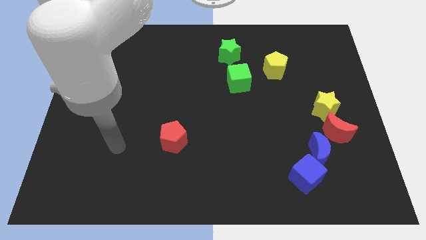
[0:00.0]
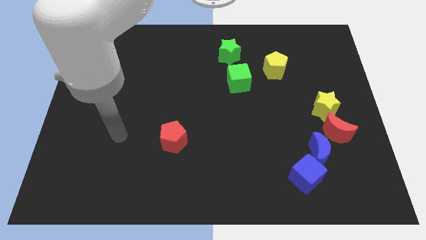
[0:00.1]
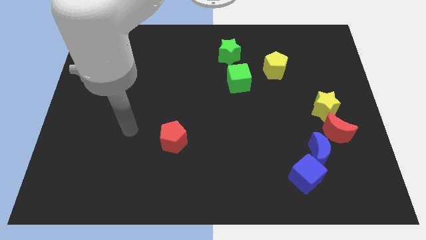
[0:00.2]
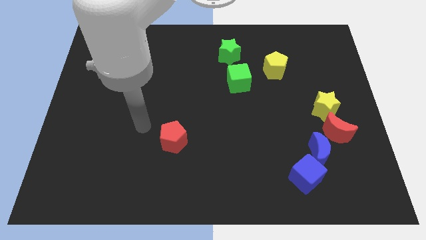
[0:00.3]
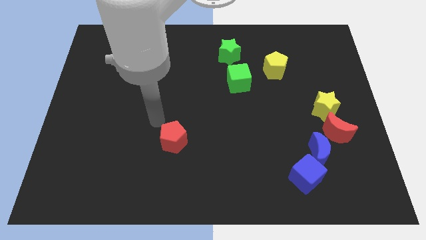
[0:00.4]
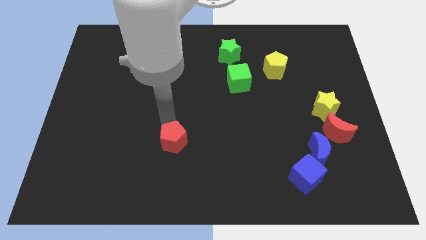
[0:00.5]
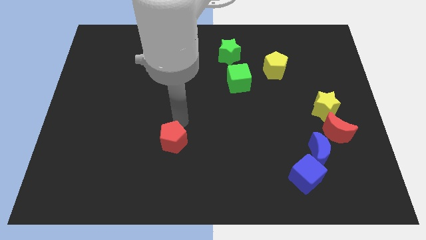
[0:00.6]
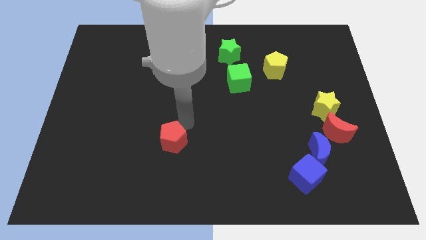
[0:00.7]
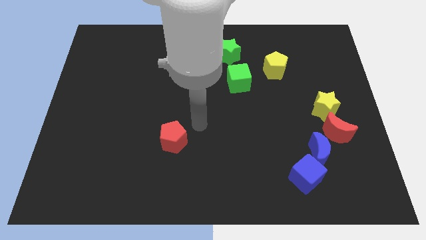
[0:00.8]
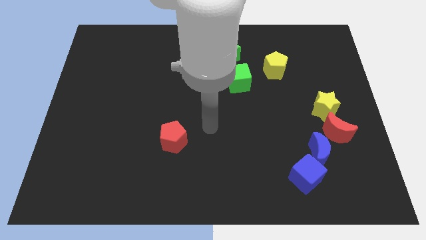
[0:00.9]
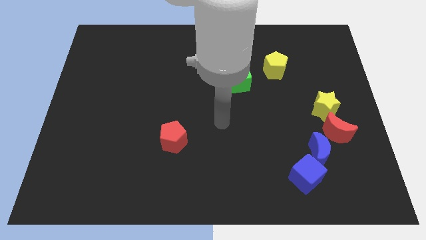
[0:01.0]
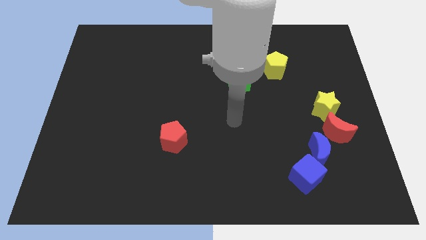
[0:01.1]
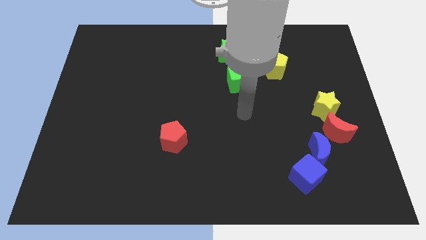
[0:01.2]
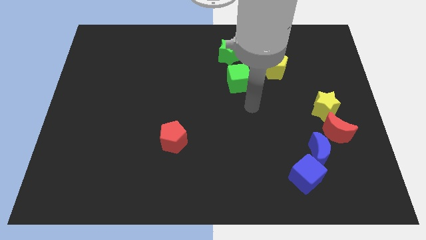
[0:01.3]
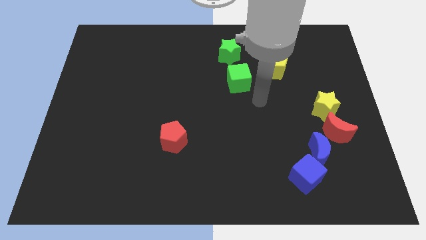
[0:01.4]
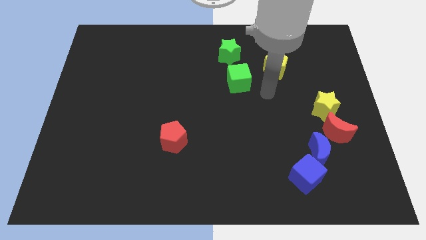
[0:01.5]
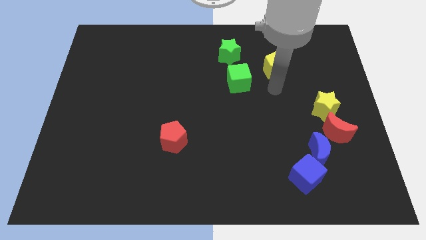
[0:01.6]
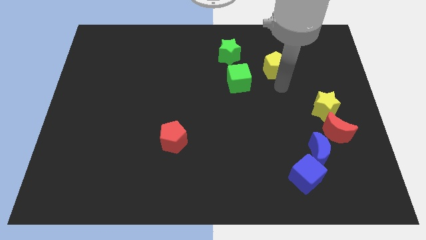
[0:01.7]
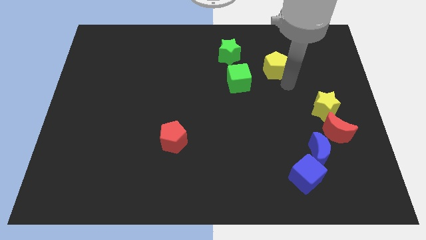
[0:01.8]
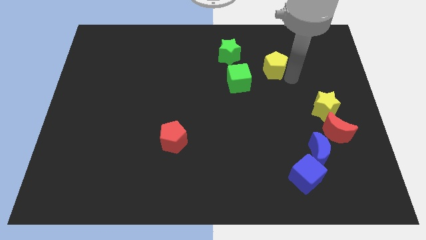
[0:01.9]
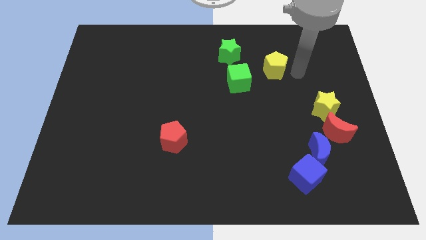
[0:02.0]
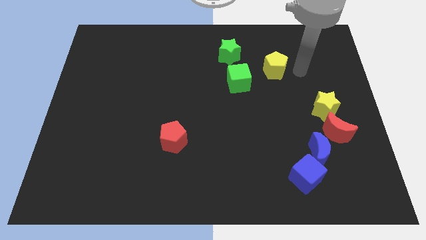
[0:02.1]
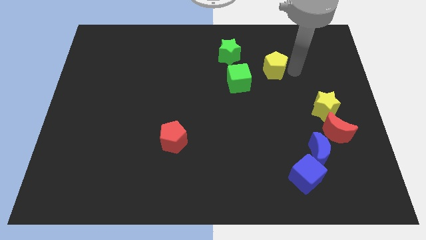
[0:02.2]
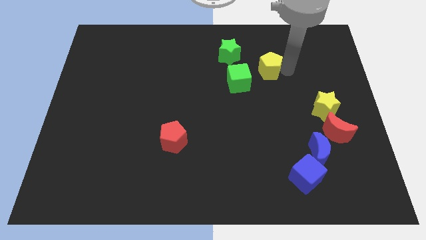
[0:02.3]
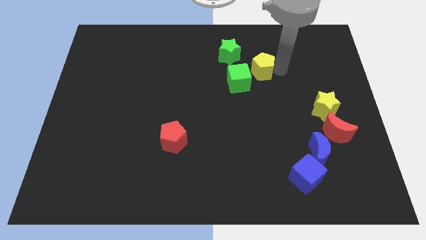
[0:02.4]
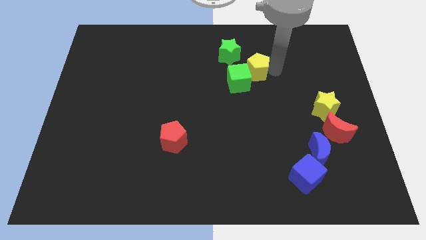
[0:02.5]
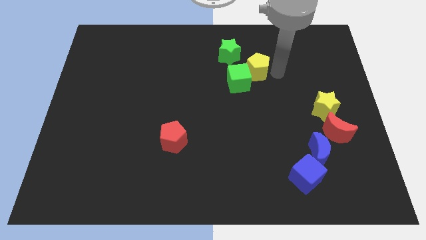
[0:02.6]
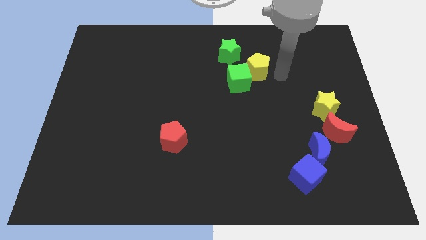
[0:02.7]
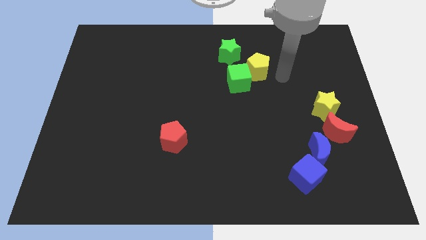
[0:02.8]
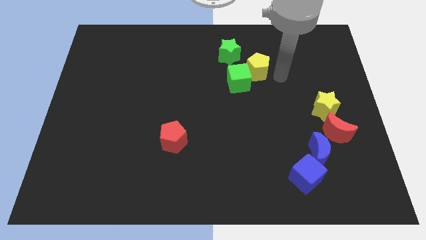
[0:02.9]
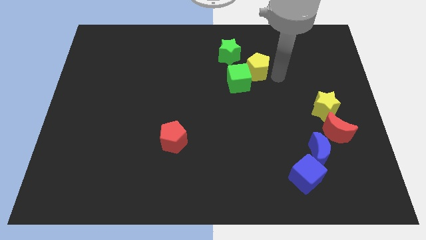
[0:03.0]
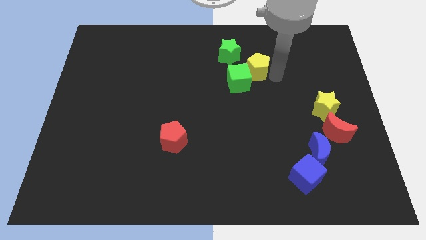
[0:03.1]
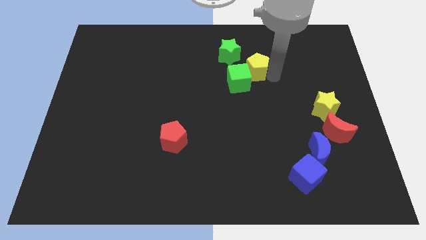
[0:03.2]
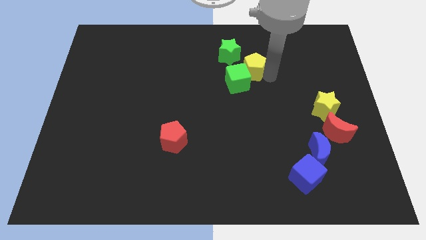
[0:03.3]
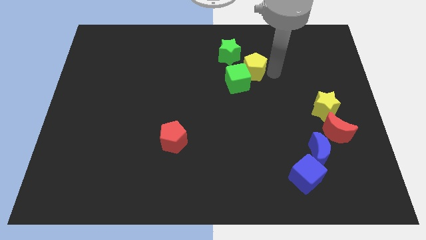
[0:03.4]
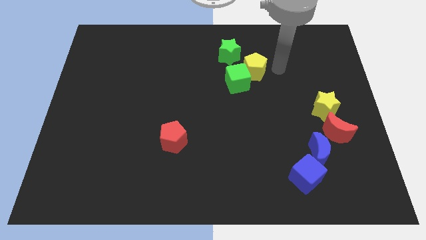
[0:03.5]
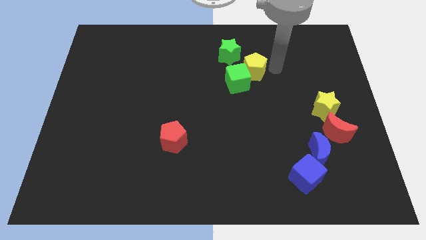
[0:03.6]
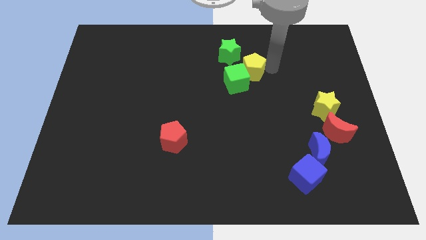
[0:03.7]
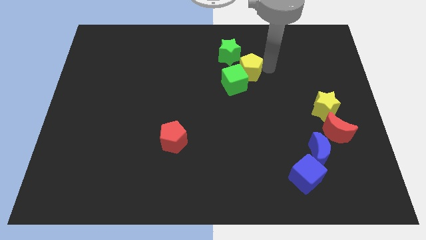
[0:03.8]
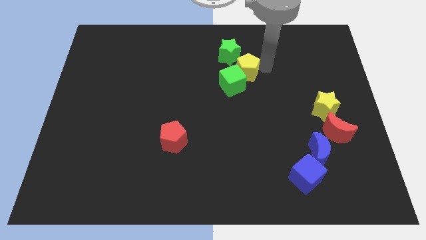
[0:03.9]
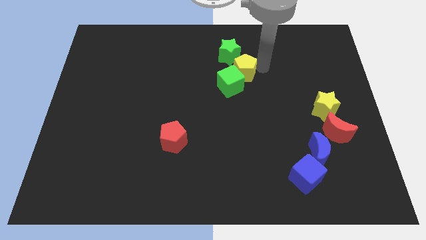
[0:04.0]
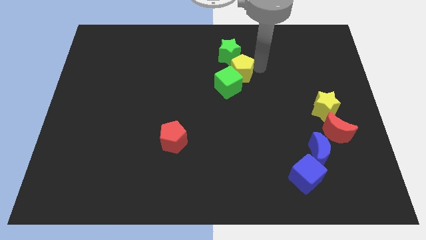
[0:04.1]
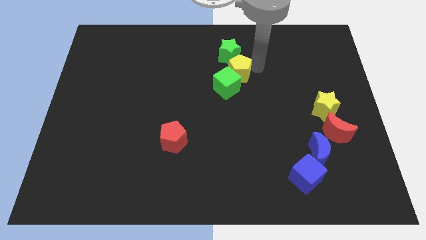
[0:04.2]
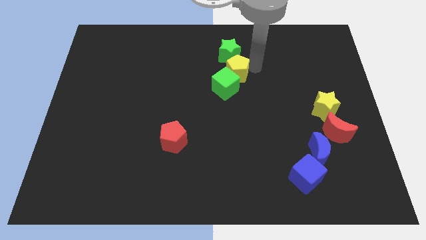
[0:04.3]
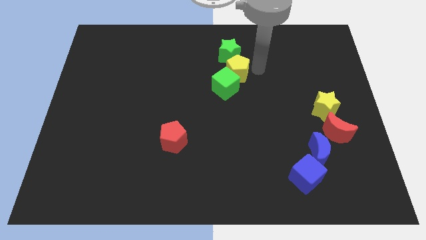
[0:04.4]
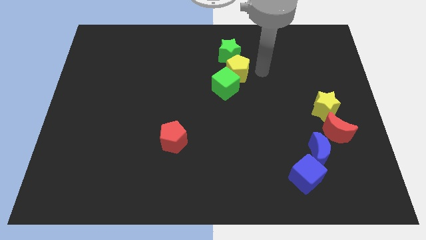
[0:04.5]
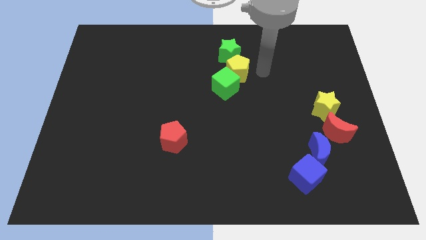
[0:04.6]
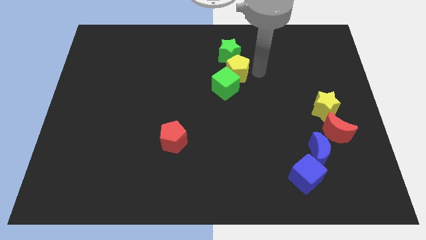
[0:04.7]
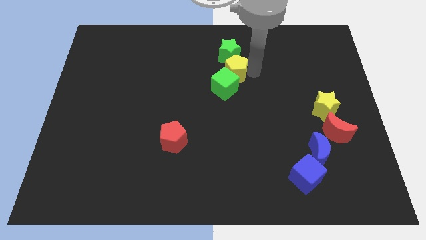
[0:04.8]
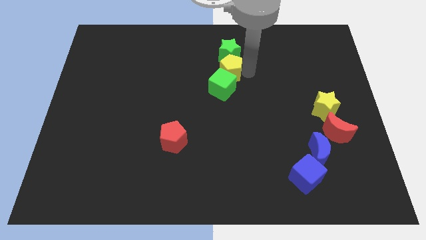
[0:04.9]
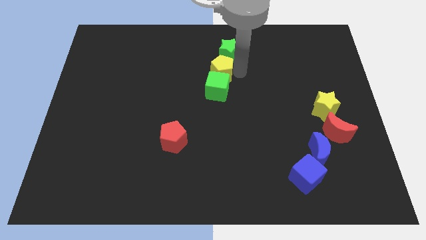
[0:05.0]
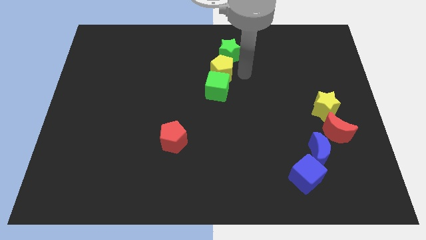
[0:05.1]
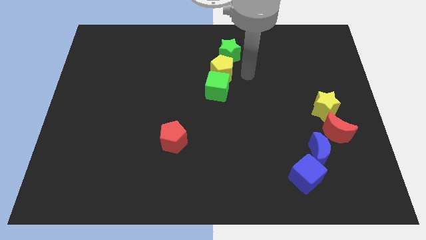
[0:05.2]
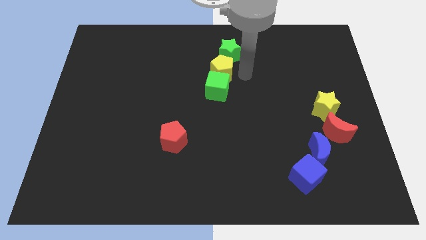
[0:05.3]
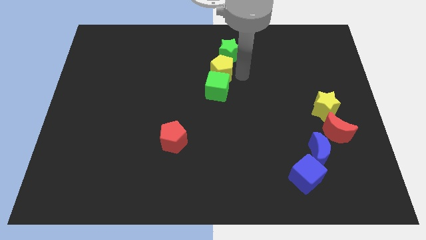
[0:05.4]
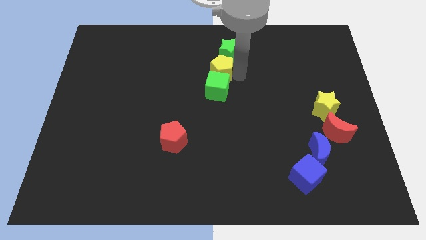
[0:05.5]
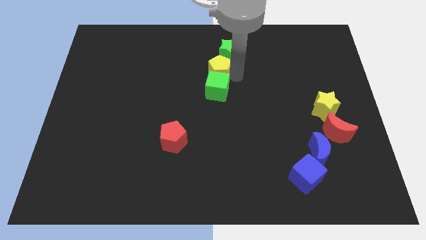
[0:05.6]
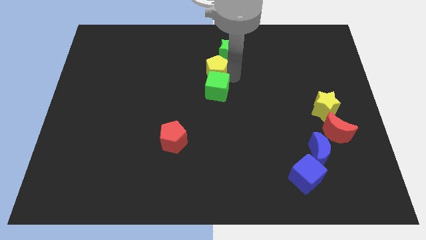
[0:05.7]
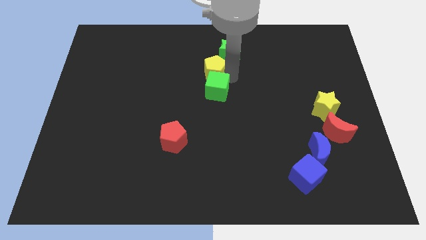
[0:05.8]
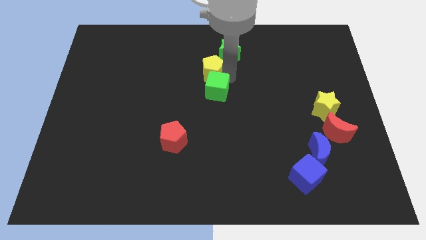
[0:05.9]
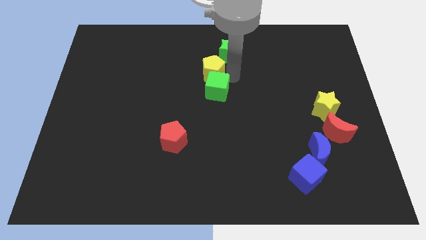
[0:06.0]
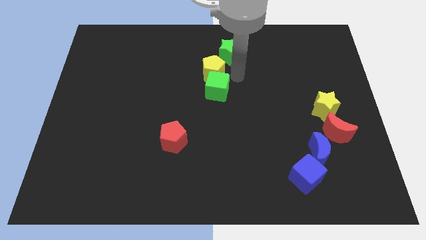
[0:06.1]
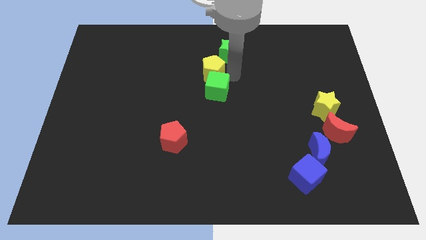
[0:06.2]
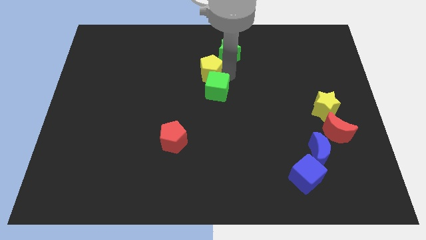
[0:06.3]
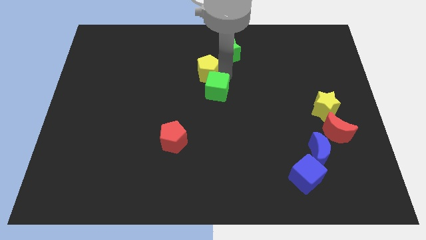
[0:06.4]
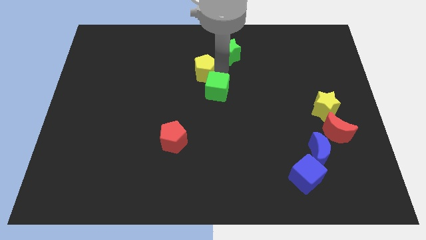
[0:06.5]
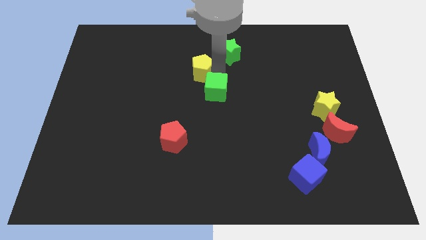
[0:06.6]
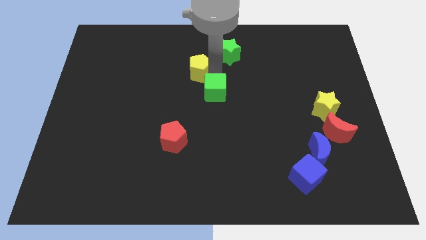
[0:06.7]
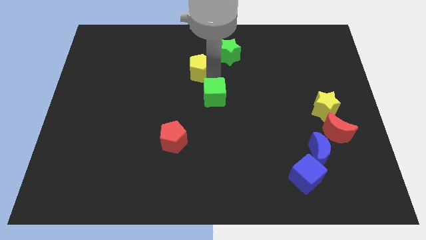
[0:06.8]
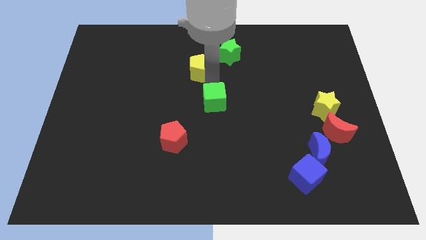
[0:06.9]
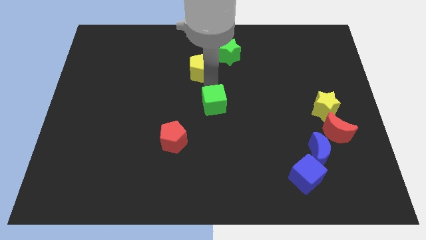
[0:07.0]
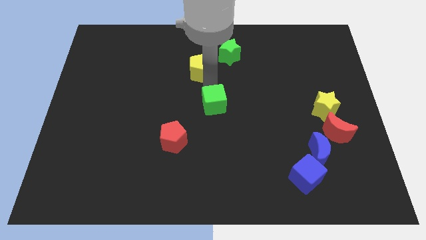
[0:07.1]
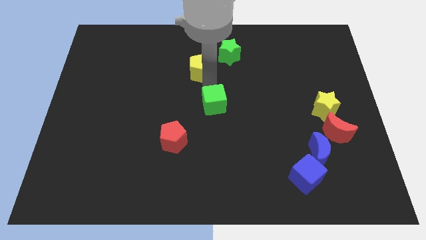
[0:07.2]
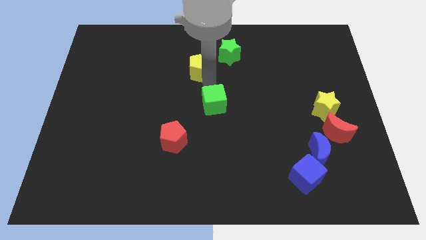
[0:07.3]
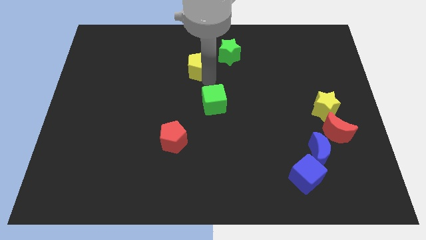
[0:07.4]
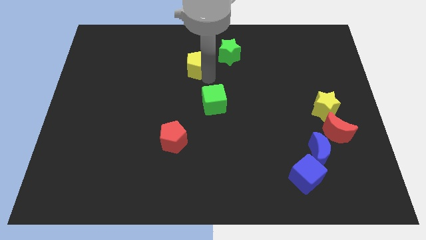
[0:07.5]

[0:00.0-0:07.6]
move the yellow pentagon left of the green star
